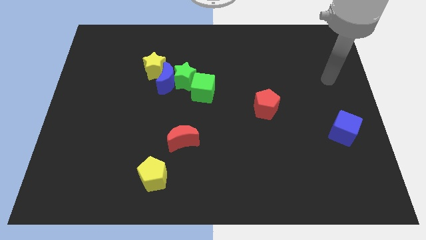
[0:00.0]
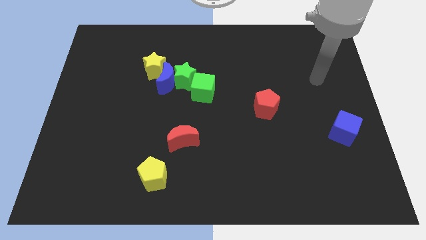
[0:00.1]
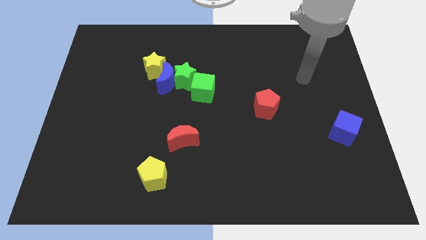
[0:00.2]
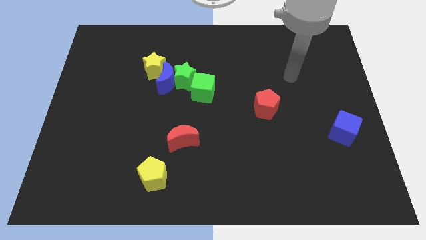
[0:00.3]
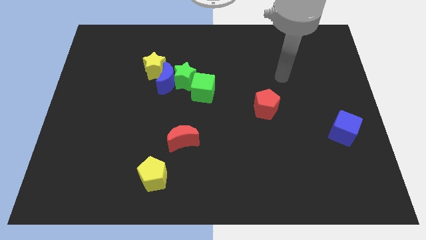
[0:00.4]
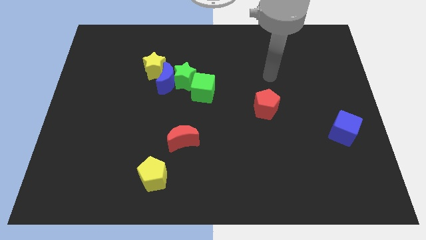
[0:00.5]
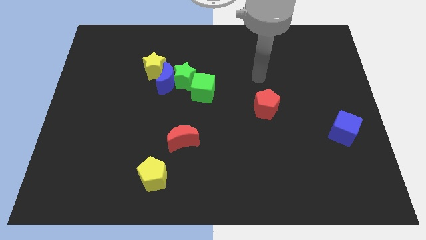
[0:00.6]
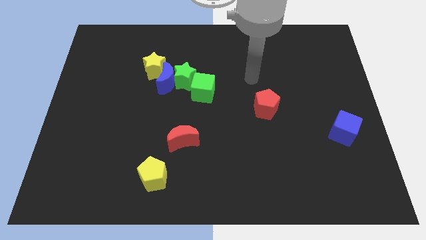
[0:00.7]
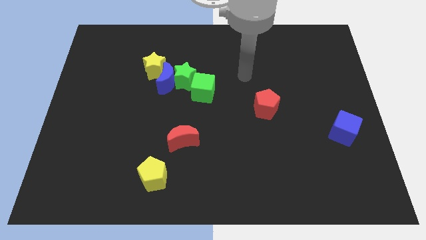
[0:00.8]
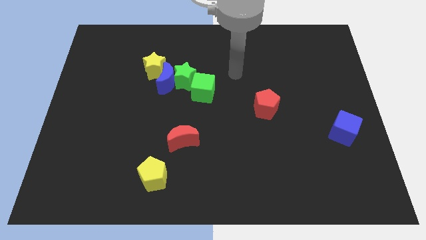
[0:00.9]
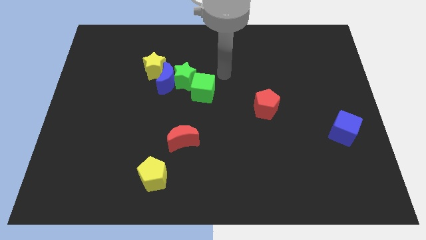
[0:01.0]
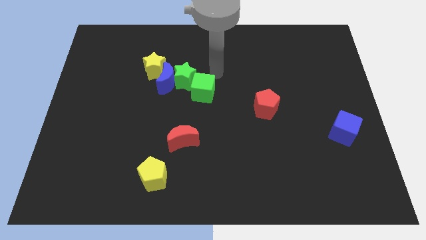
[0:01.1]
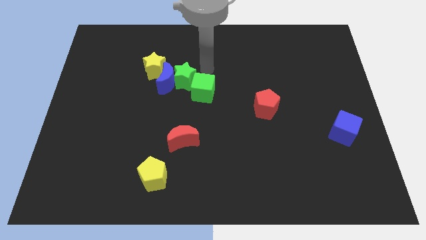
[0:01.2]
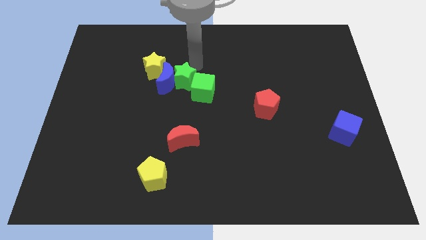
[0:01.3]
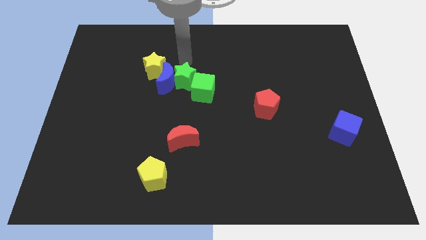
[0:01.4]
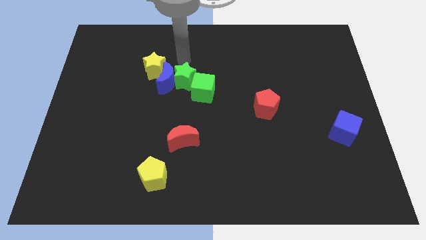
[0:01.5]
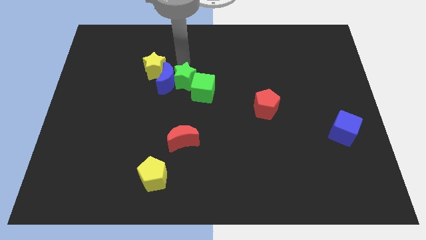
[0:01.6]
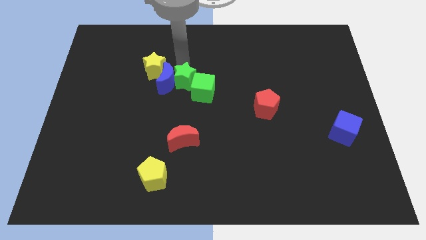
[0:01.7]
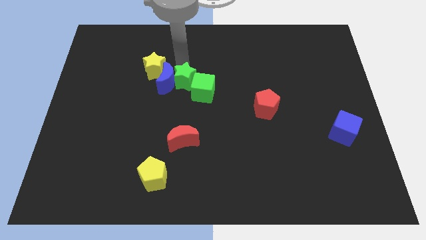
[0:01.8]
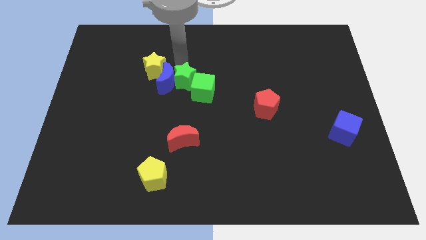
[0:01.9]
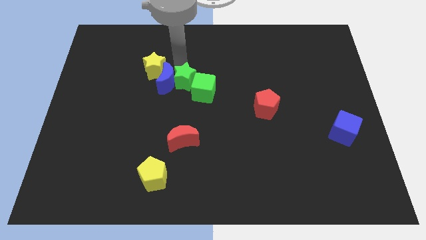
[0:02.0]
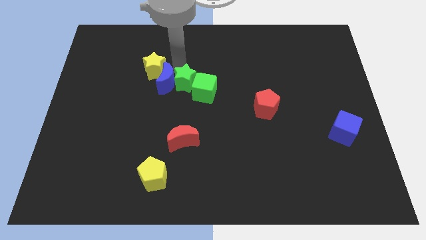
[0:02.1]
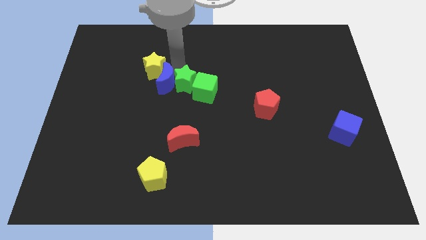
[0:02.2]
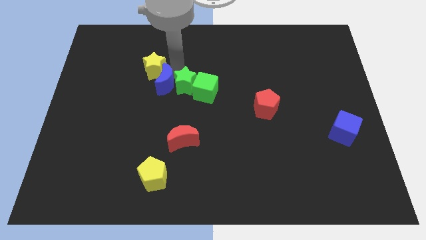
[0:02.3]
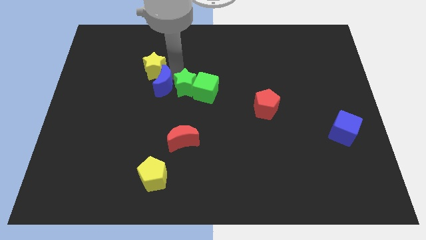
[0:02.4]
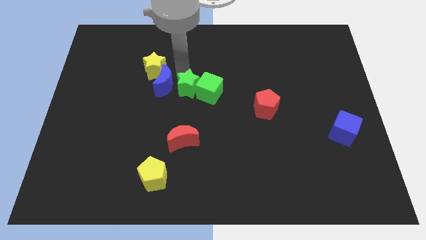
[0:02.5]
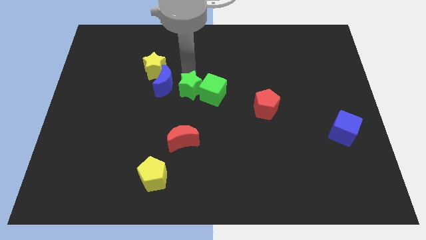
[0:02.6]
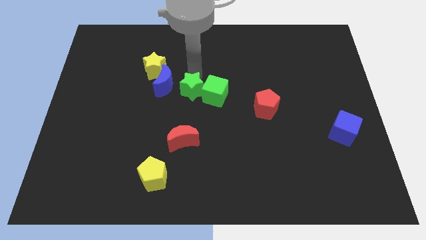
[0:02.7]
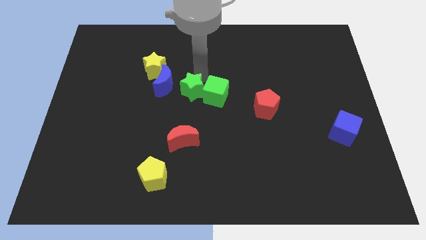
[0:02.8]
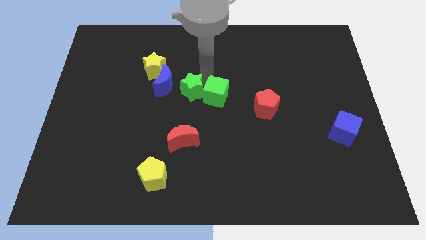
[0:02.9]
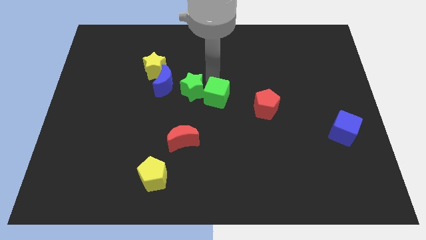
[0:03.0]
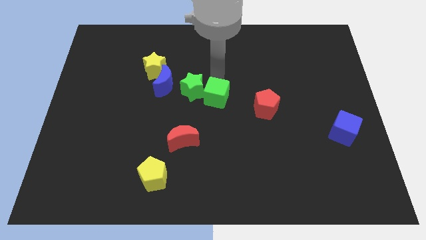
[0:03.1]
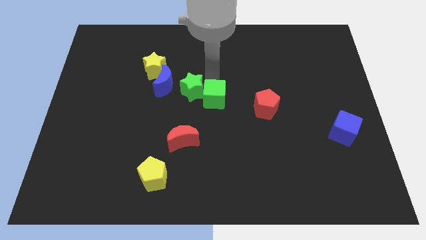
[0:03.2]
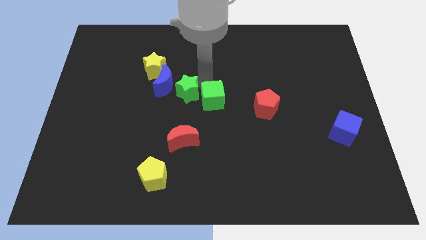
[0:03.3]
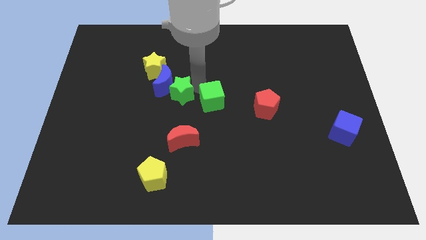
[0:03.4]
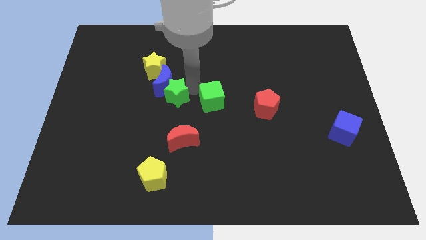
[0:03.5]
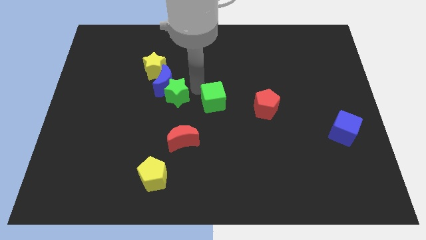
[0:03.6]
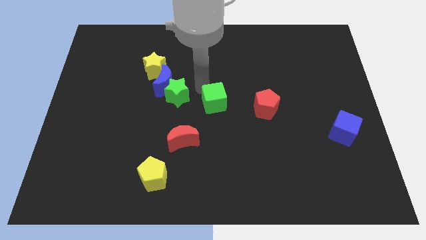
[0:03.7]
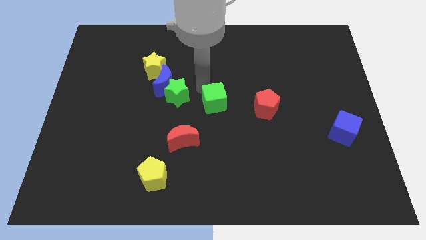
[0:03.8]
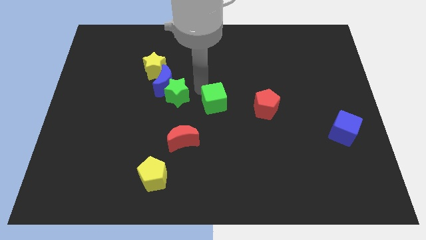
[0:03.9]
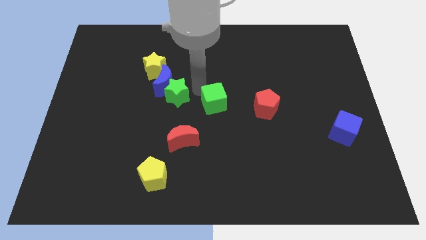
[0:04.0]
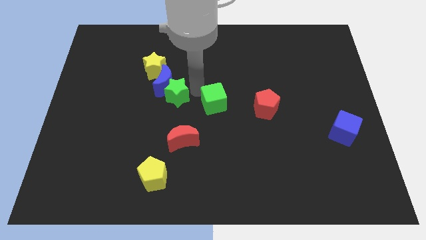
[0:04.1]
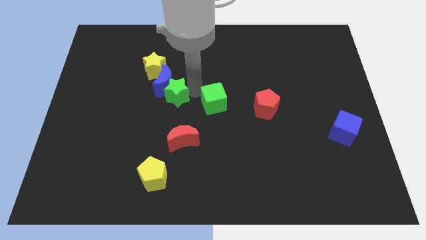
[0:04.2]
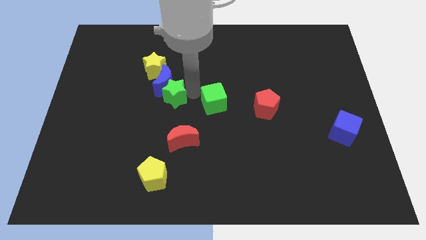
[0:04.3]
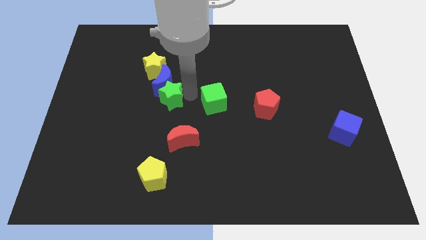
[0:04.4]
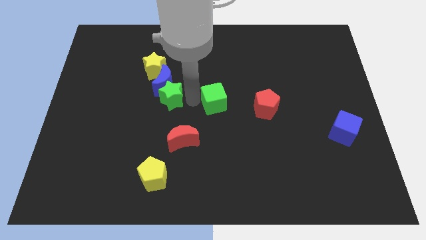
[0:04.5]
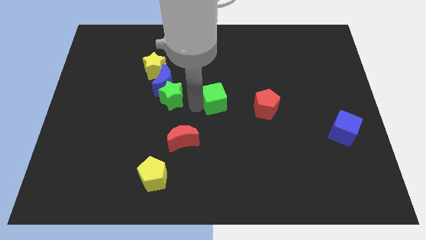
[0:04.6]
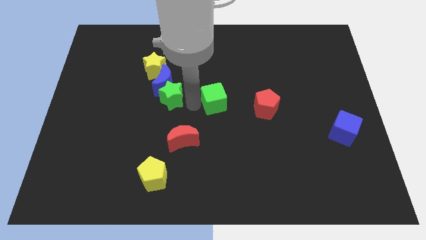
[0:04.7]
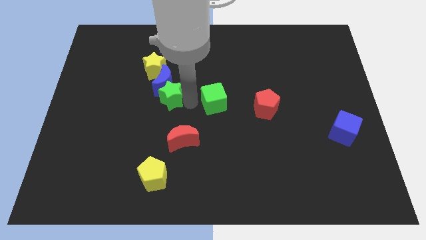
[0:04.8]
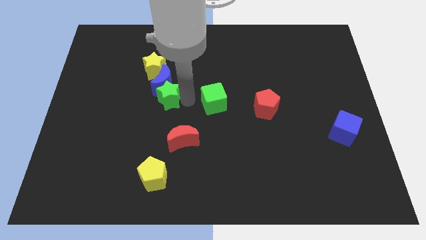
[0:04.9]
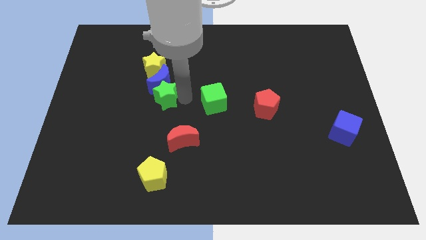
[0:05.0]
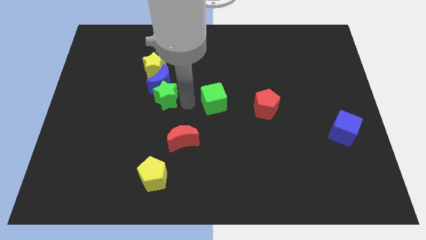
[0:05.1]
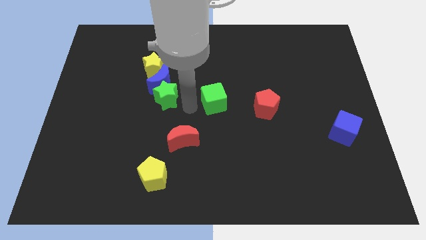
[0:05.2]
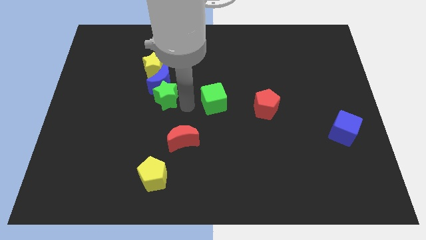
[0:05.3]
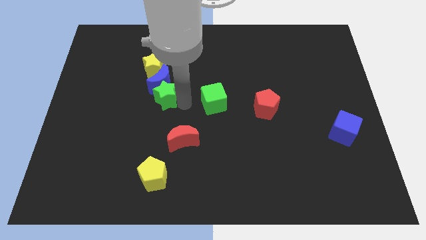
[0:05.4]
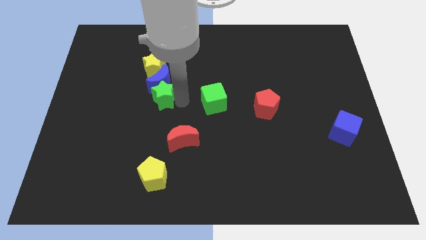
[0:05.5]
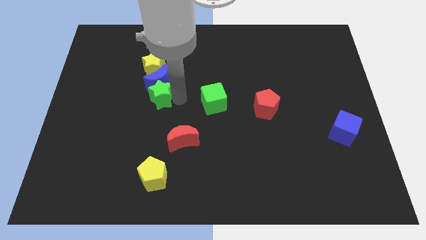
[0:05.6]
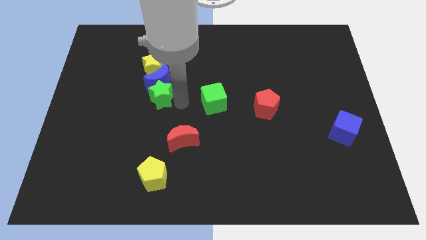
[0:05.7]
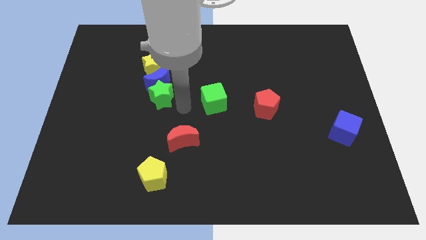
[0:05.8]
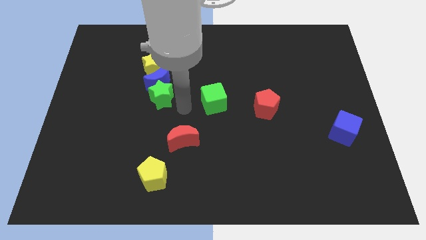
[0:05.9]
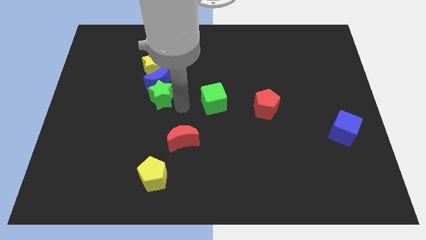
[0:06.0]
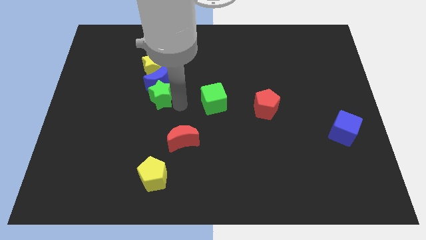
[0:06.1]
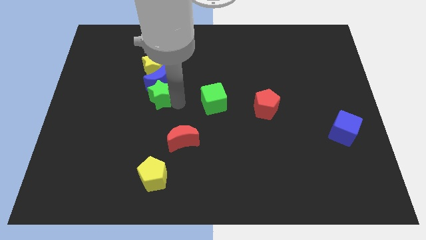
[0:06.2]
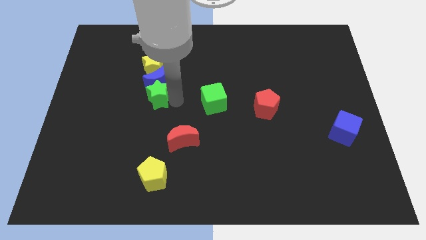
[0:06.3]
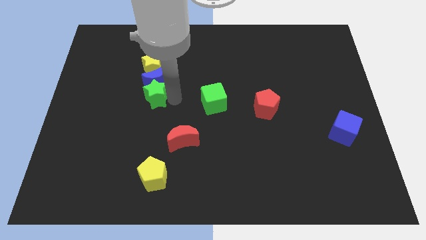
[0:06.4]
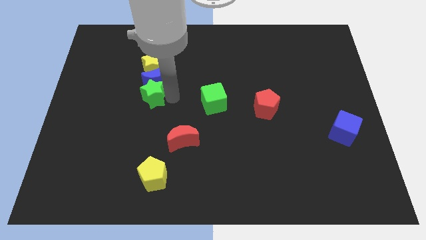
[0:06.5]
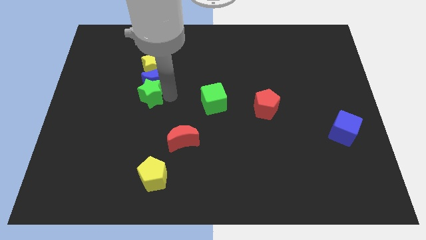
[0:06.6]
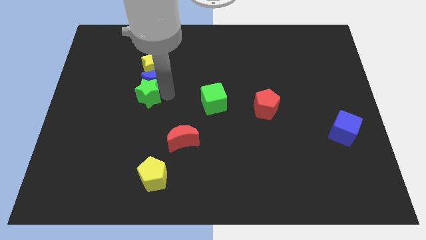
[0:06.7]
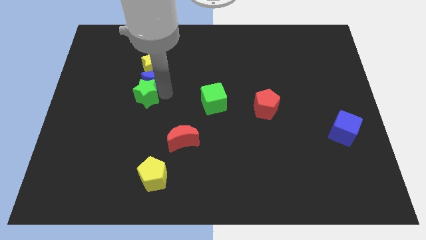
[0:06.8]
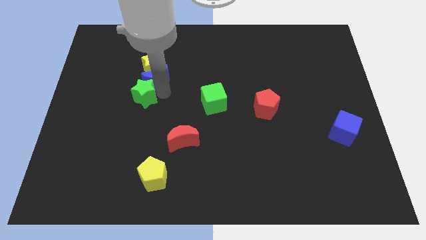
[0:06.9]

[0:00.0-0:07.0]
move the green star to the left side of the blue moon
